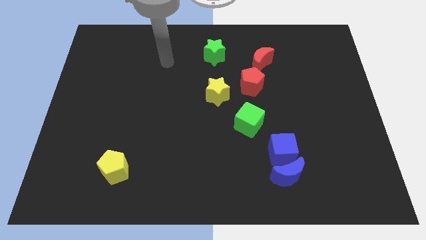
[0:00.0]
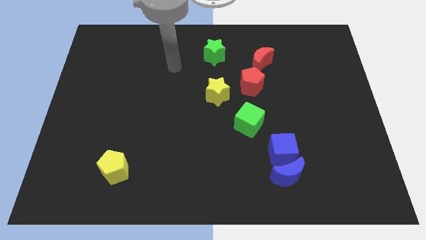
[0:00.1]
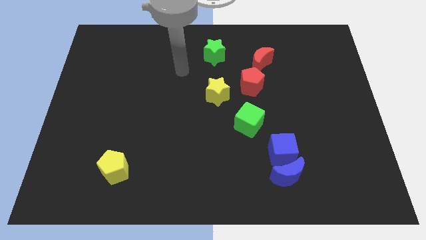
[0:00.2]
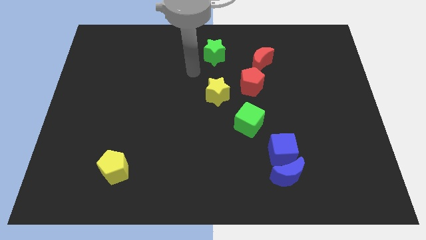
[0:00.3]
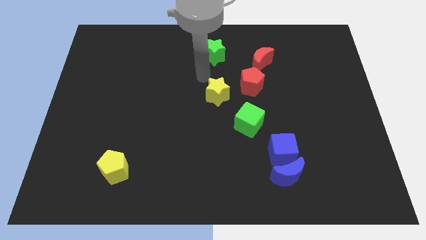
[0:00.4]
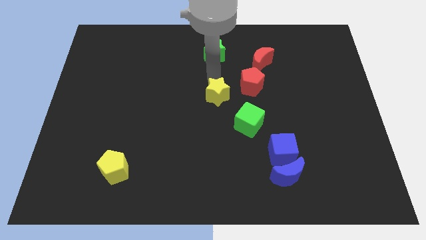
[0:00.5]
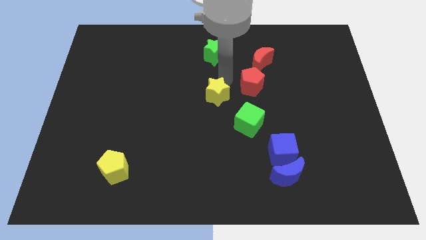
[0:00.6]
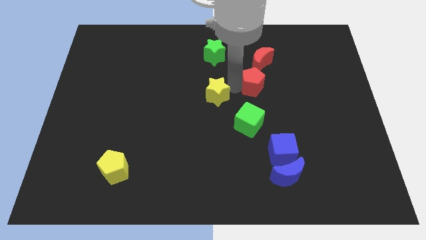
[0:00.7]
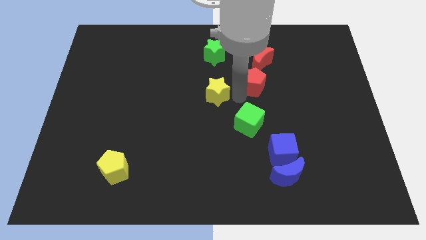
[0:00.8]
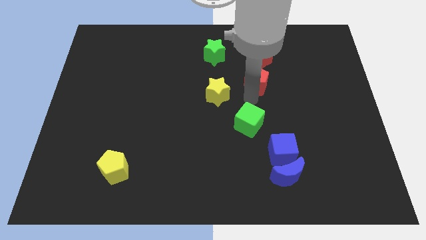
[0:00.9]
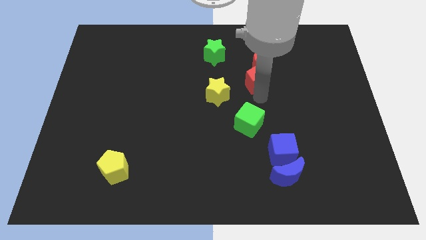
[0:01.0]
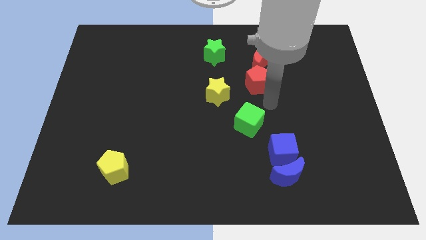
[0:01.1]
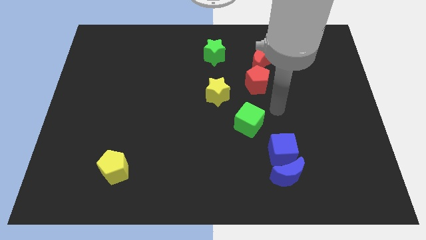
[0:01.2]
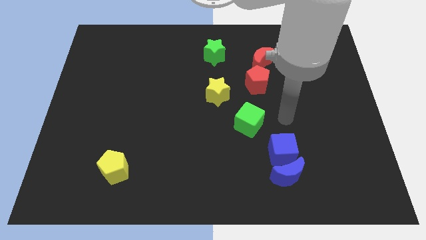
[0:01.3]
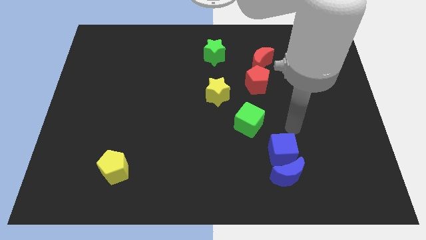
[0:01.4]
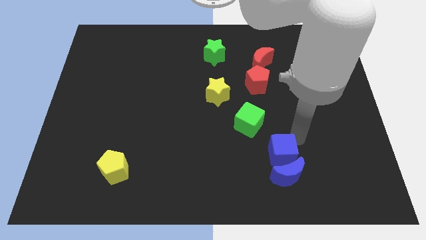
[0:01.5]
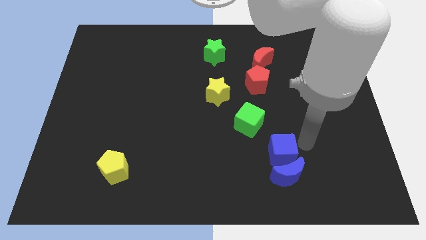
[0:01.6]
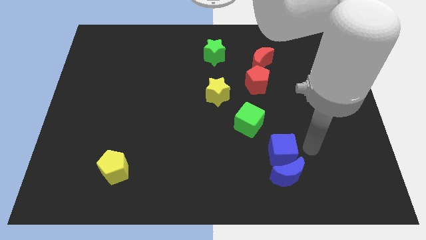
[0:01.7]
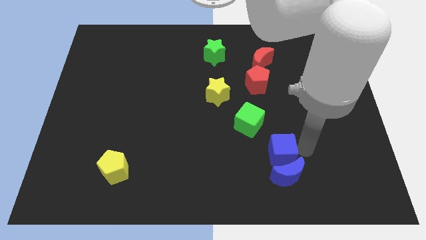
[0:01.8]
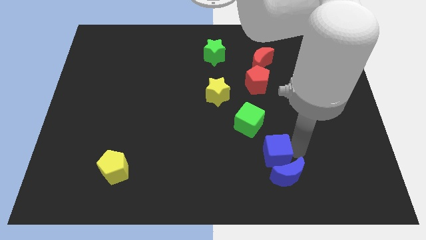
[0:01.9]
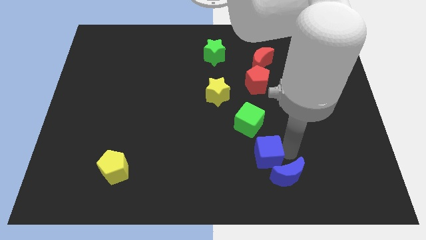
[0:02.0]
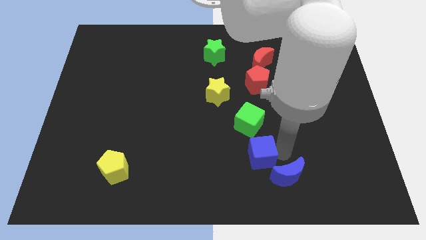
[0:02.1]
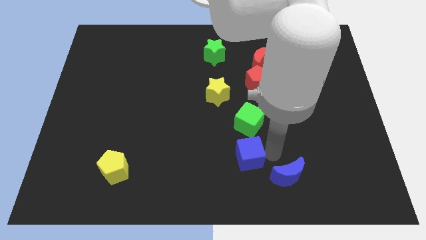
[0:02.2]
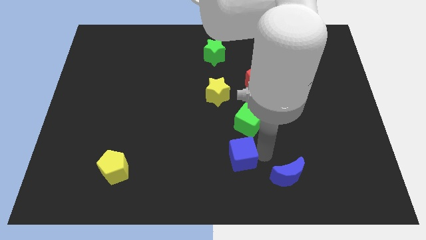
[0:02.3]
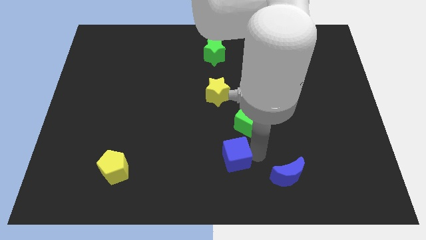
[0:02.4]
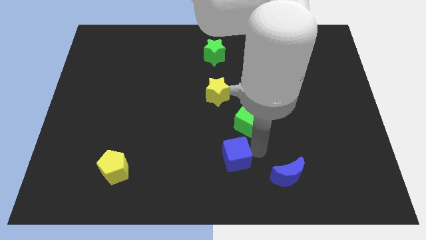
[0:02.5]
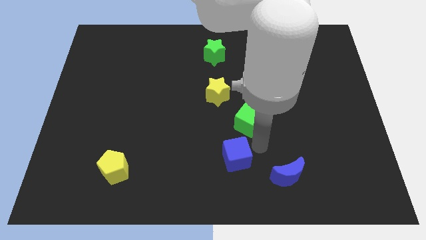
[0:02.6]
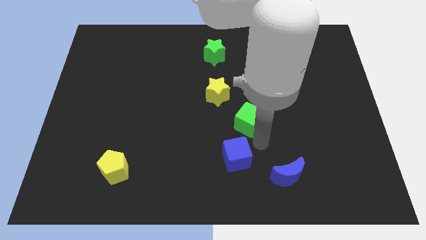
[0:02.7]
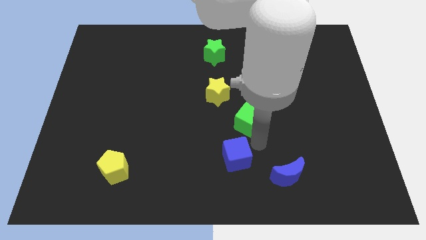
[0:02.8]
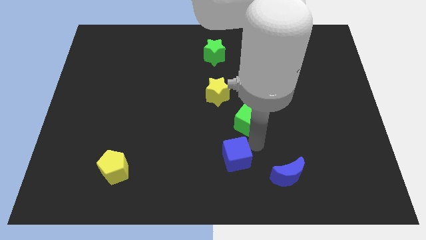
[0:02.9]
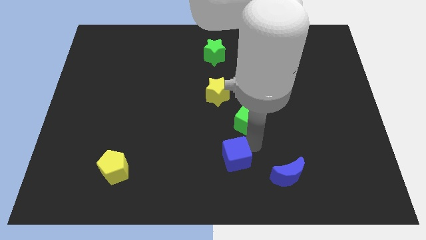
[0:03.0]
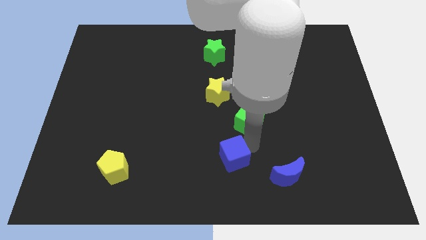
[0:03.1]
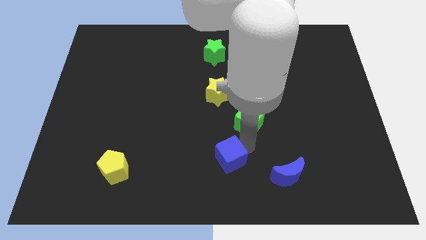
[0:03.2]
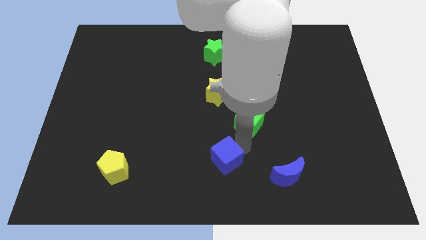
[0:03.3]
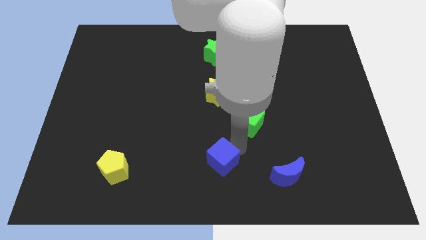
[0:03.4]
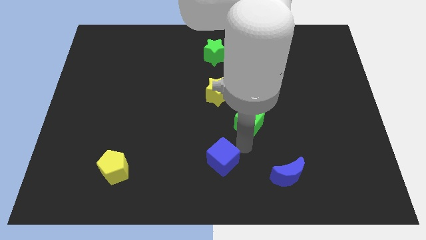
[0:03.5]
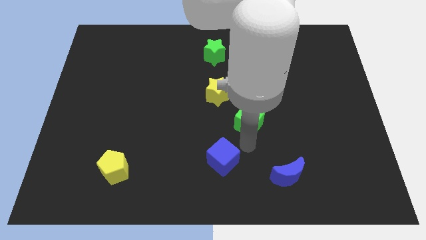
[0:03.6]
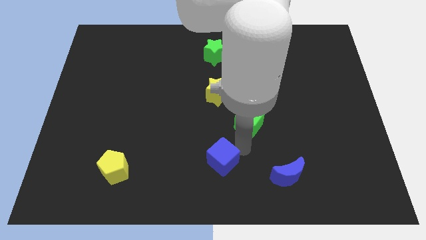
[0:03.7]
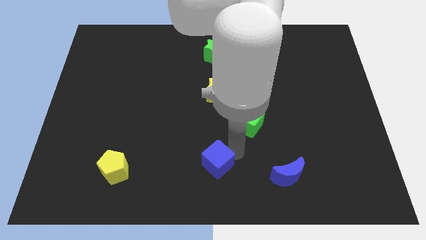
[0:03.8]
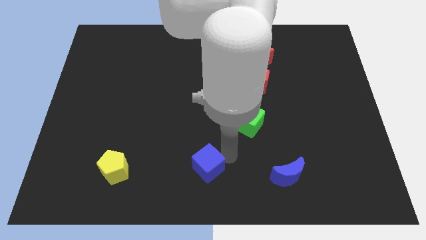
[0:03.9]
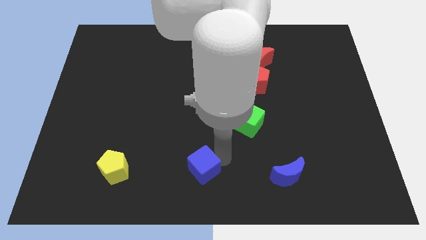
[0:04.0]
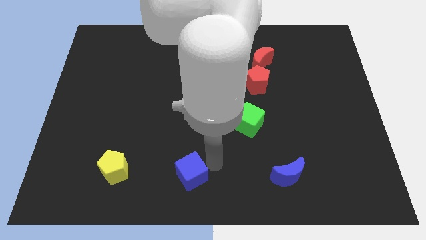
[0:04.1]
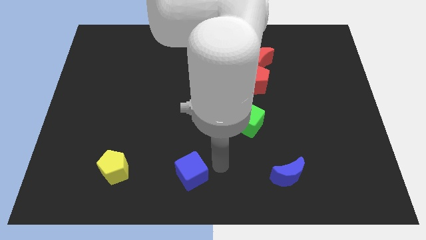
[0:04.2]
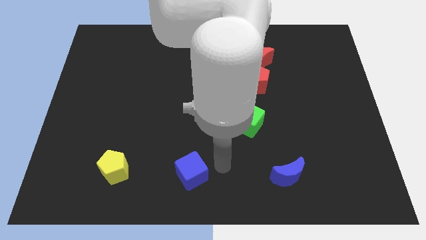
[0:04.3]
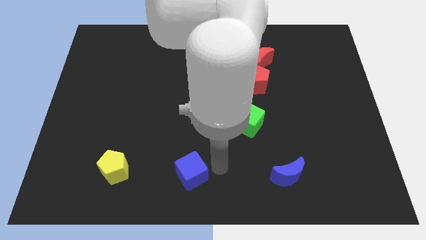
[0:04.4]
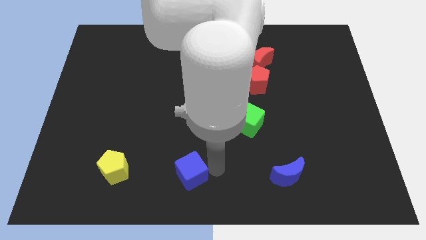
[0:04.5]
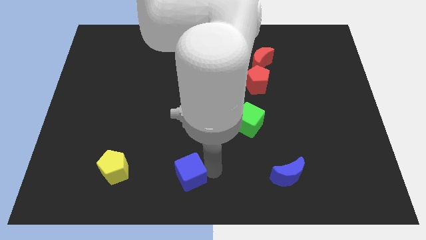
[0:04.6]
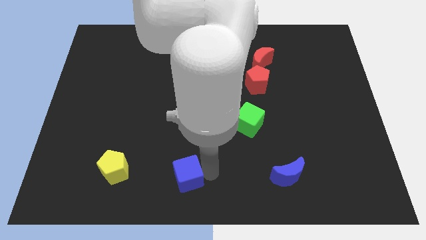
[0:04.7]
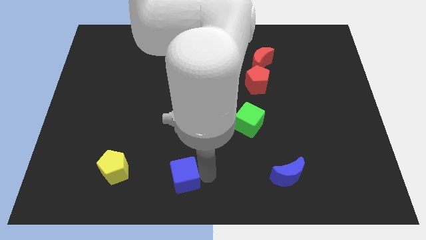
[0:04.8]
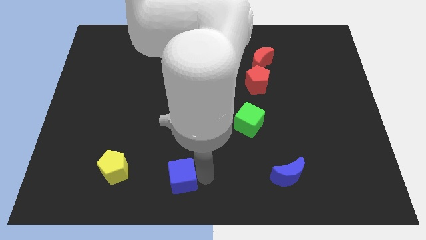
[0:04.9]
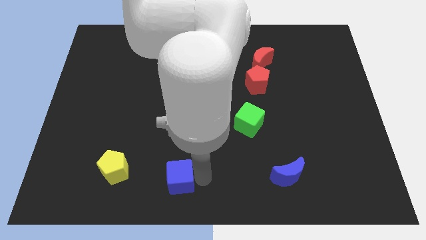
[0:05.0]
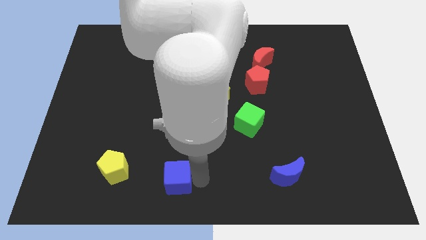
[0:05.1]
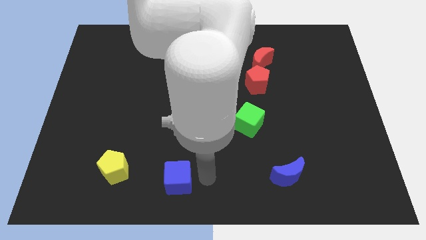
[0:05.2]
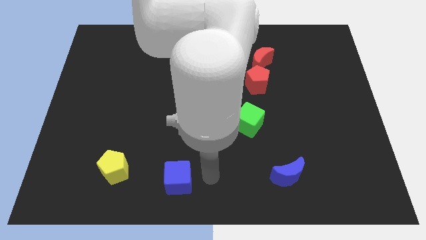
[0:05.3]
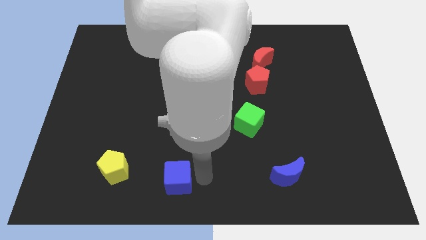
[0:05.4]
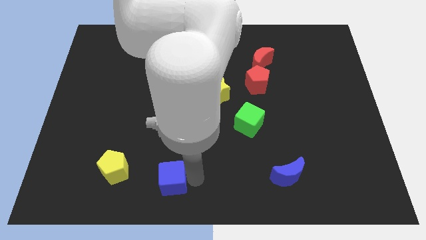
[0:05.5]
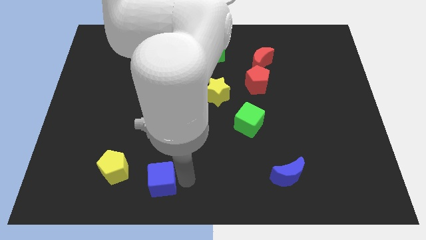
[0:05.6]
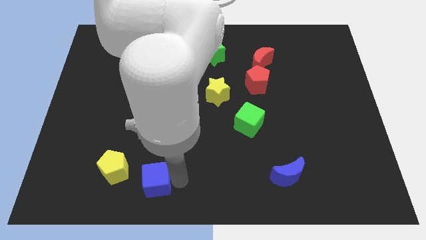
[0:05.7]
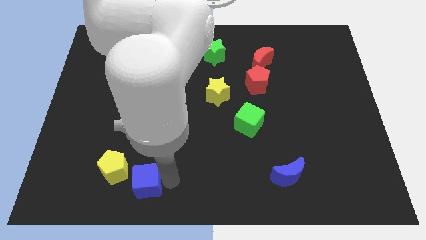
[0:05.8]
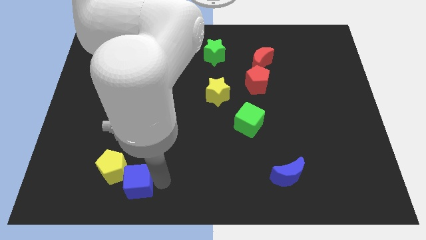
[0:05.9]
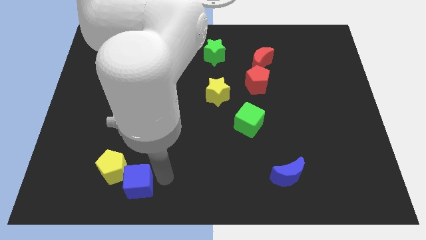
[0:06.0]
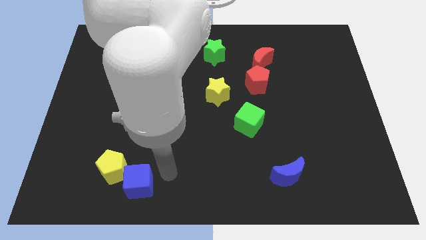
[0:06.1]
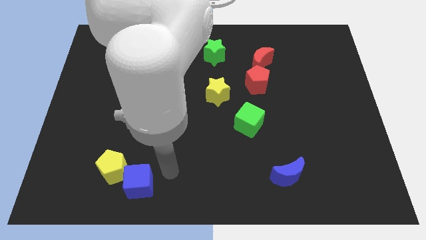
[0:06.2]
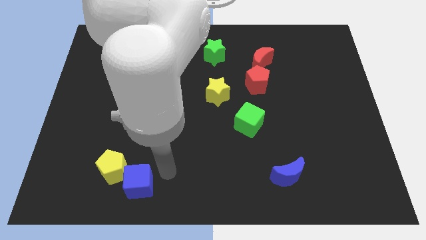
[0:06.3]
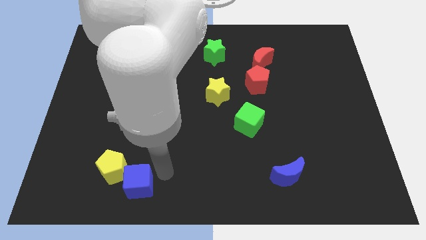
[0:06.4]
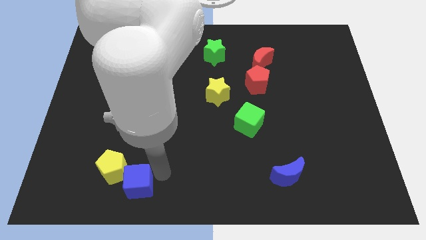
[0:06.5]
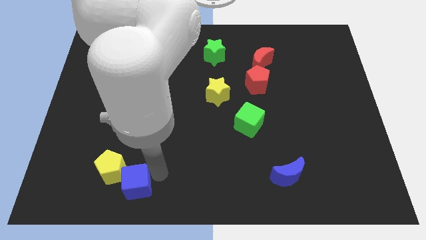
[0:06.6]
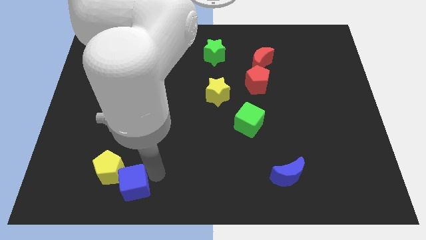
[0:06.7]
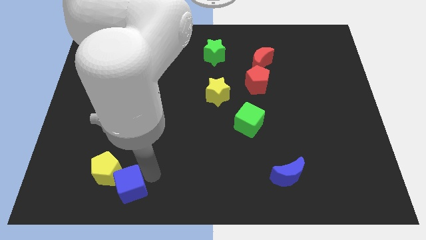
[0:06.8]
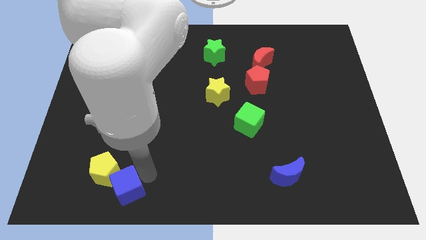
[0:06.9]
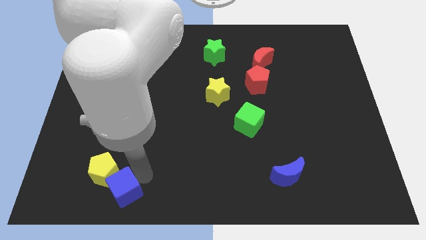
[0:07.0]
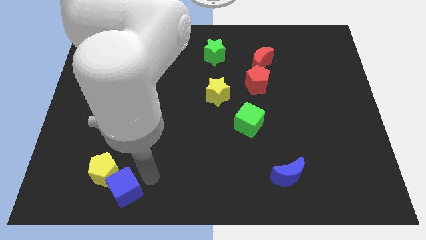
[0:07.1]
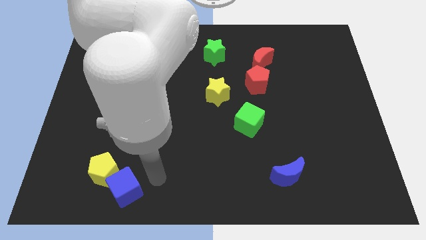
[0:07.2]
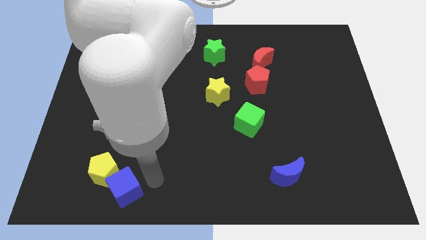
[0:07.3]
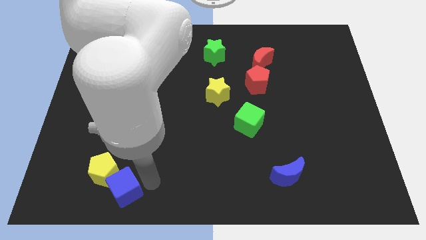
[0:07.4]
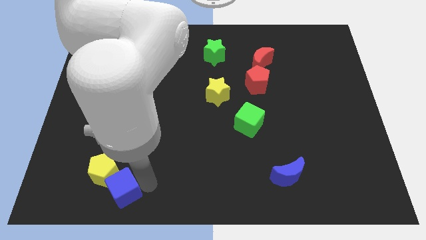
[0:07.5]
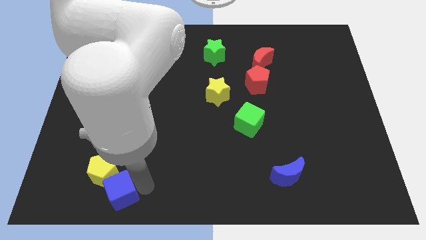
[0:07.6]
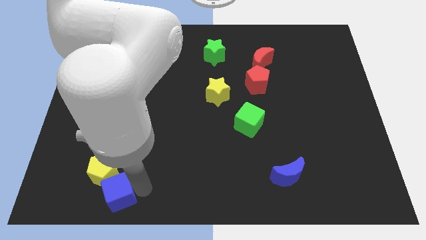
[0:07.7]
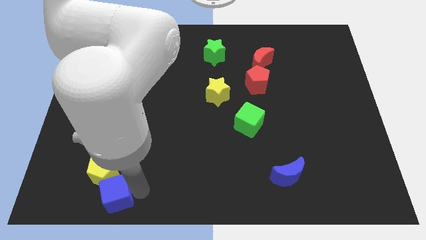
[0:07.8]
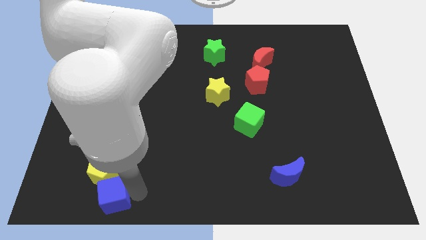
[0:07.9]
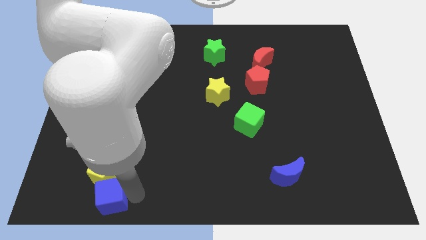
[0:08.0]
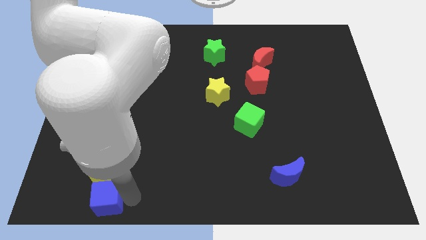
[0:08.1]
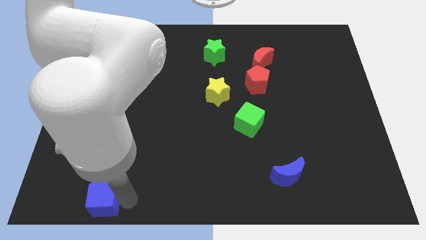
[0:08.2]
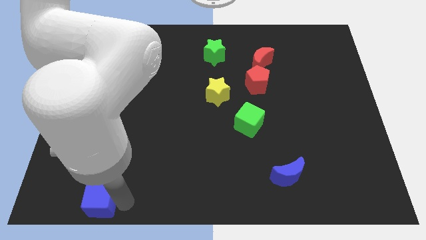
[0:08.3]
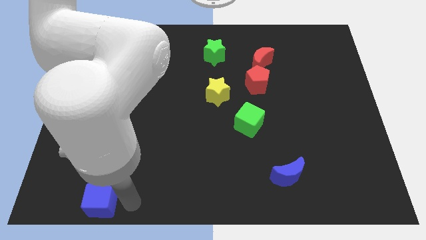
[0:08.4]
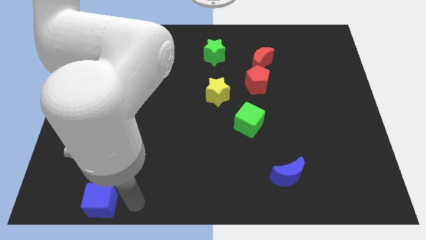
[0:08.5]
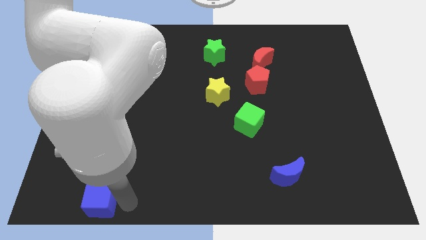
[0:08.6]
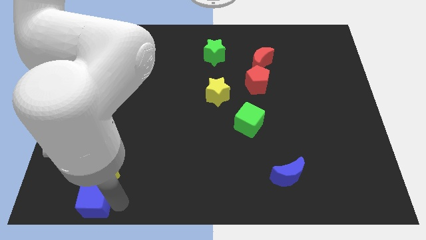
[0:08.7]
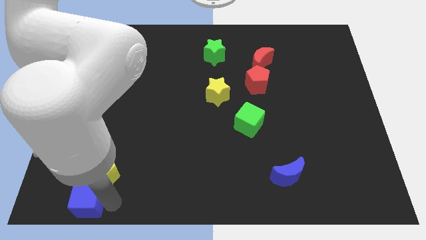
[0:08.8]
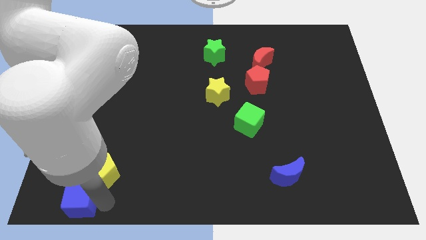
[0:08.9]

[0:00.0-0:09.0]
move the blue cube to the lower left corner
